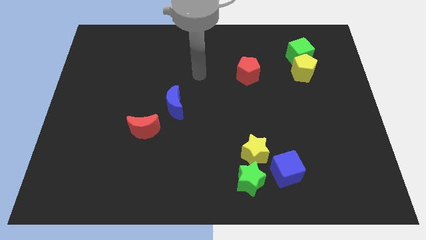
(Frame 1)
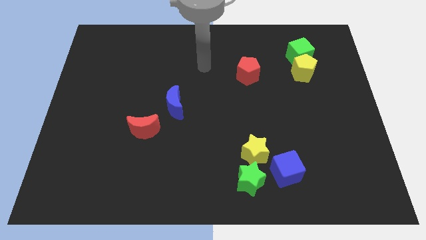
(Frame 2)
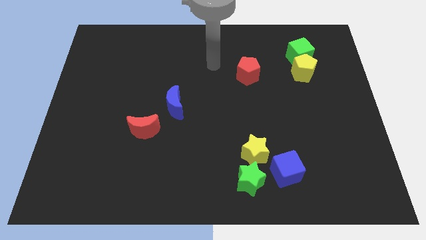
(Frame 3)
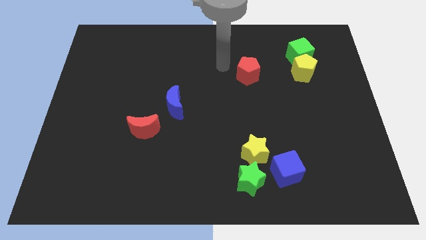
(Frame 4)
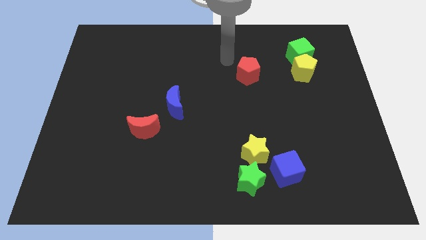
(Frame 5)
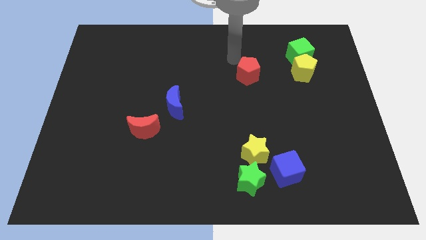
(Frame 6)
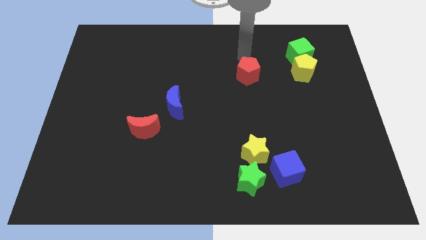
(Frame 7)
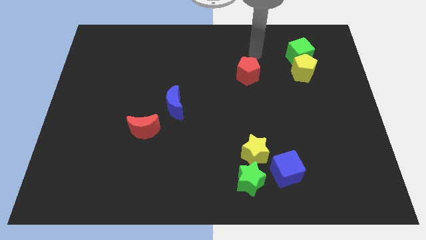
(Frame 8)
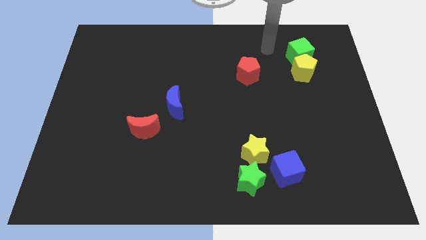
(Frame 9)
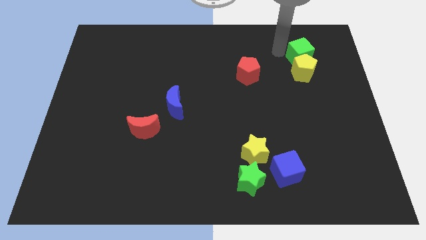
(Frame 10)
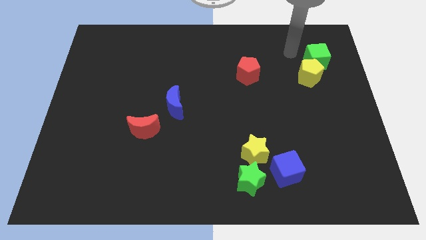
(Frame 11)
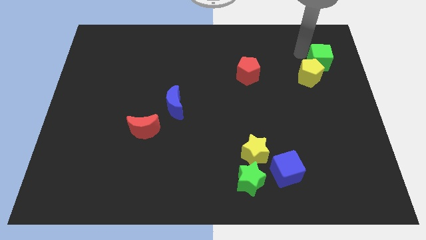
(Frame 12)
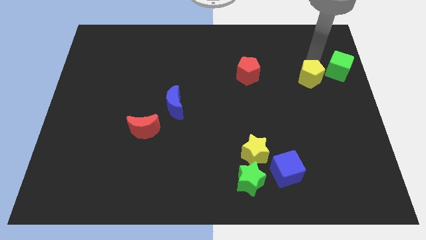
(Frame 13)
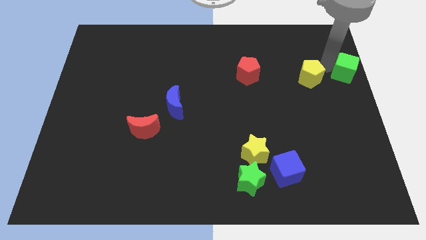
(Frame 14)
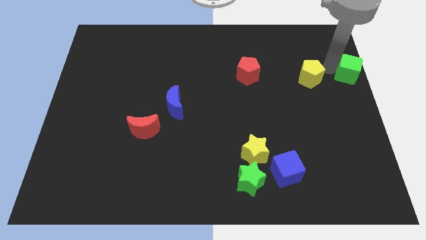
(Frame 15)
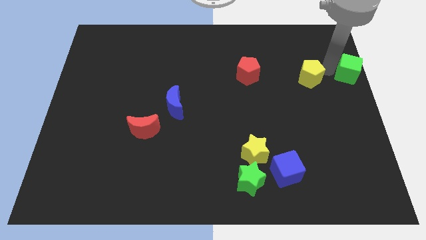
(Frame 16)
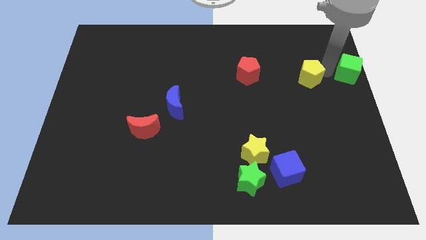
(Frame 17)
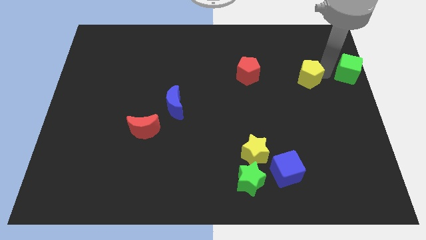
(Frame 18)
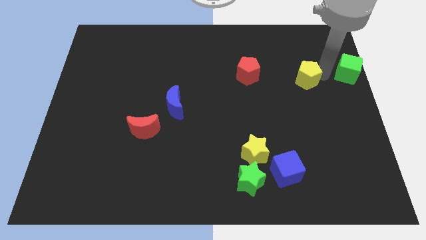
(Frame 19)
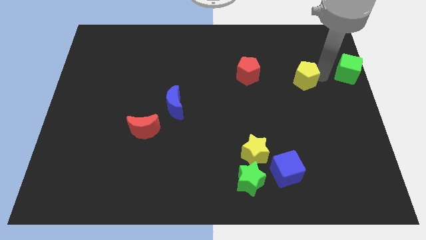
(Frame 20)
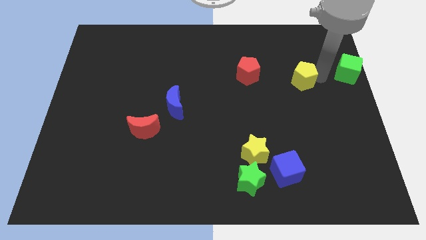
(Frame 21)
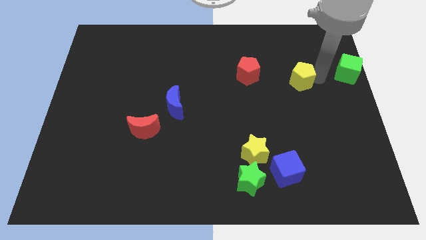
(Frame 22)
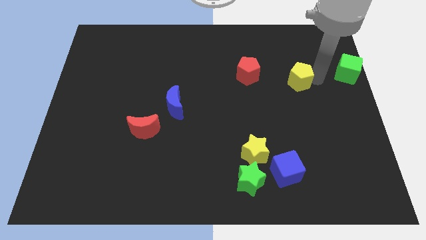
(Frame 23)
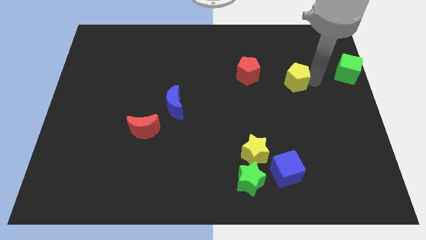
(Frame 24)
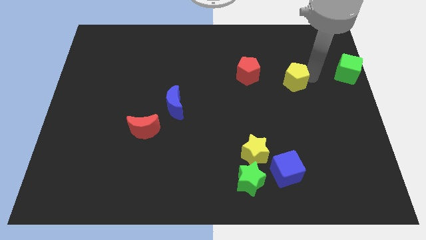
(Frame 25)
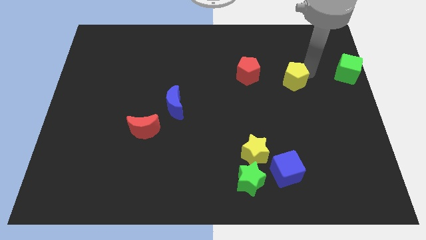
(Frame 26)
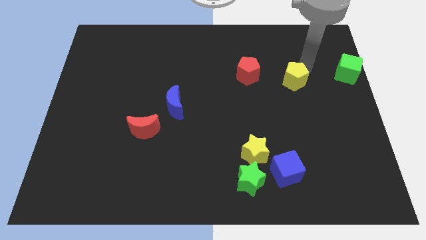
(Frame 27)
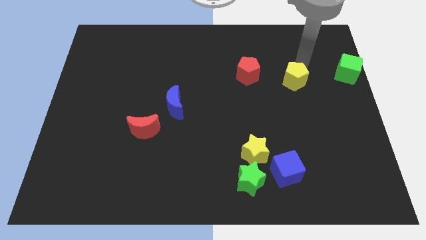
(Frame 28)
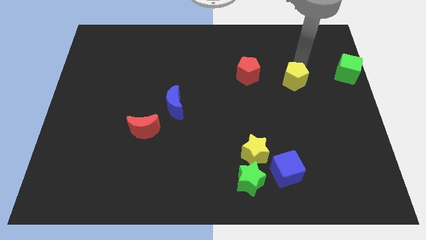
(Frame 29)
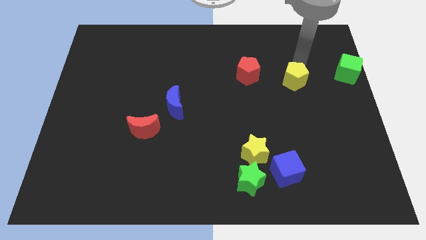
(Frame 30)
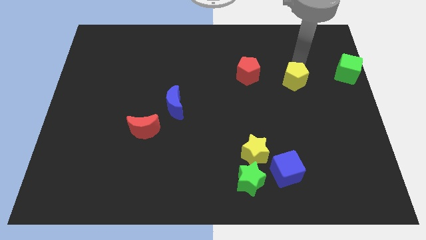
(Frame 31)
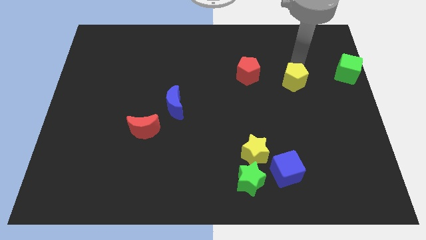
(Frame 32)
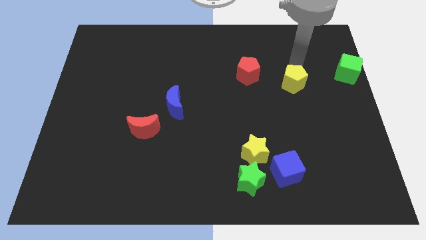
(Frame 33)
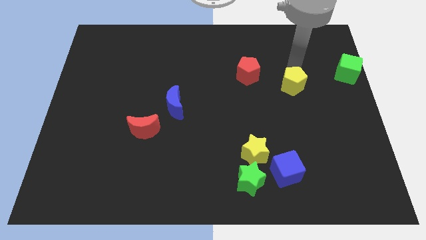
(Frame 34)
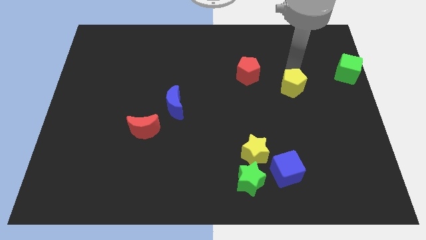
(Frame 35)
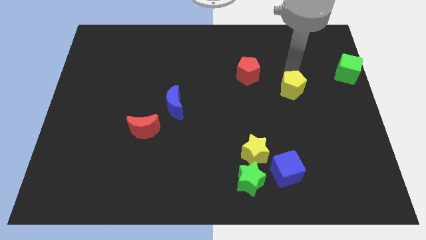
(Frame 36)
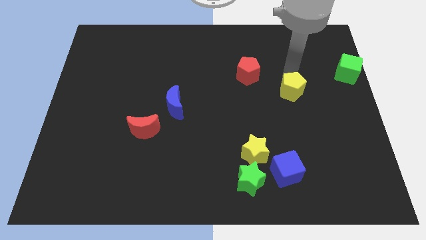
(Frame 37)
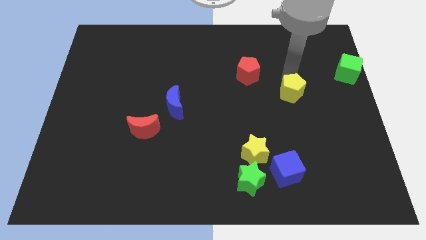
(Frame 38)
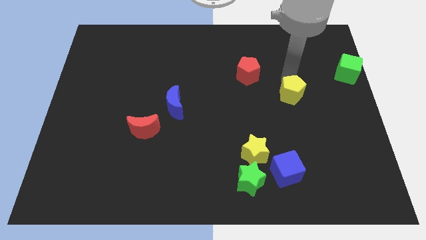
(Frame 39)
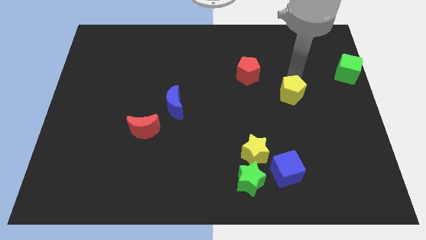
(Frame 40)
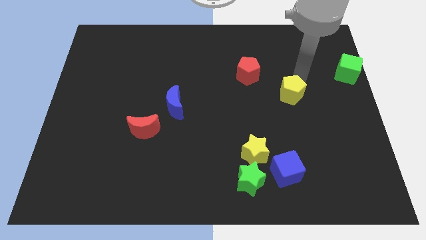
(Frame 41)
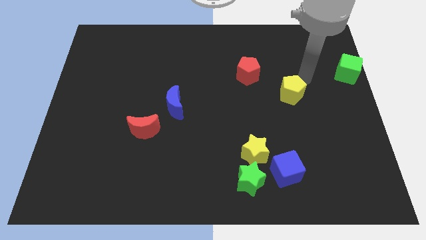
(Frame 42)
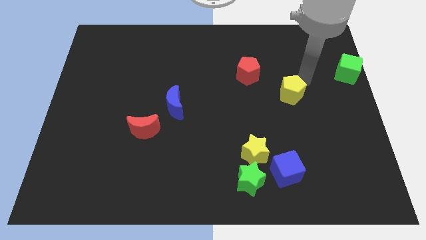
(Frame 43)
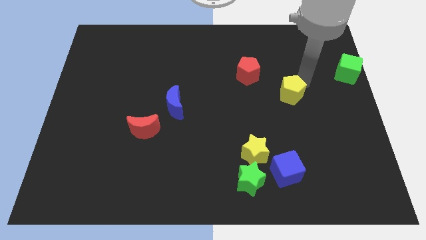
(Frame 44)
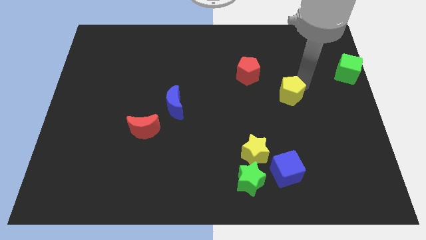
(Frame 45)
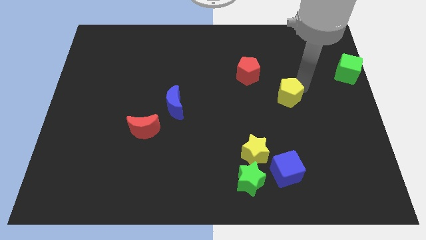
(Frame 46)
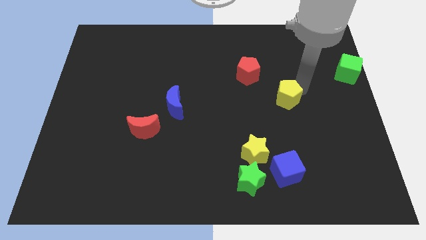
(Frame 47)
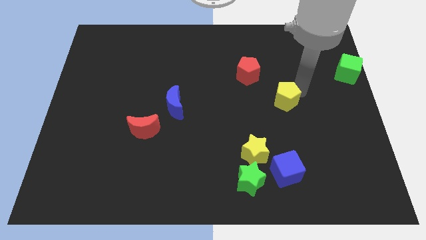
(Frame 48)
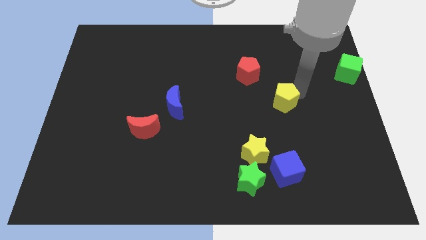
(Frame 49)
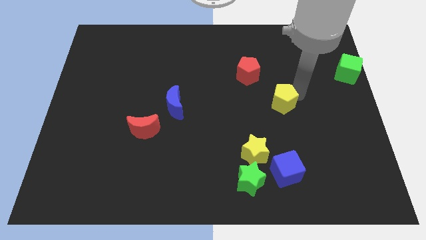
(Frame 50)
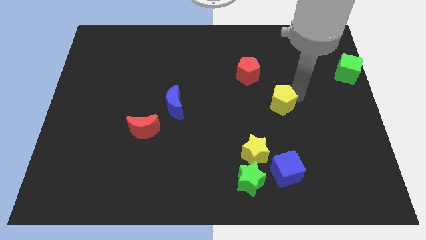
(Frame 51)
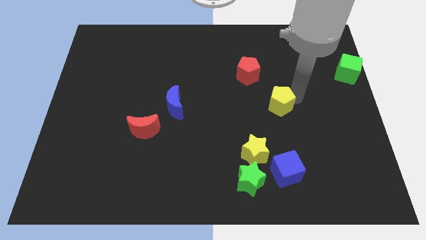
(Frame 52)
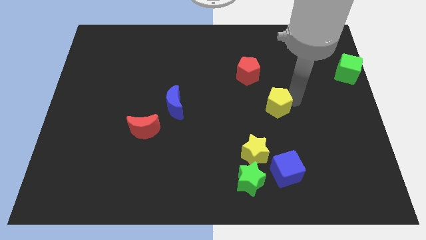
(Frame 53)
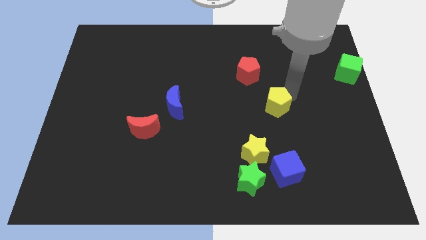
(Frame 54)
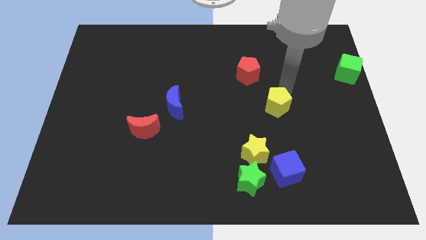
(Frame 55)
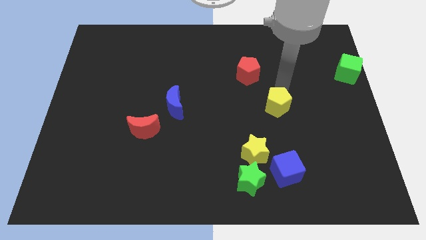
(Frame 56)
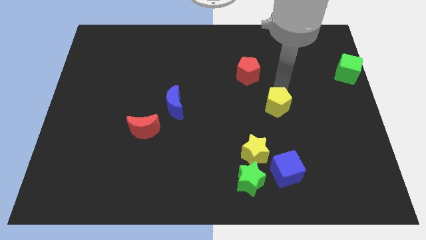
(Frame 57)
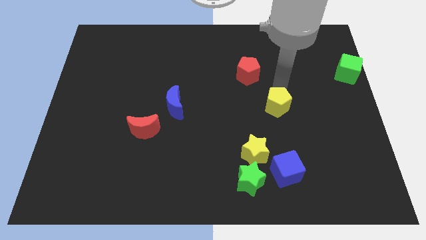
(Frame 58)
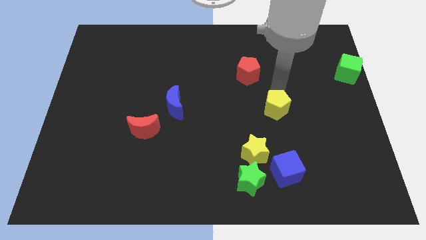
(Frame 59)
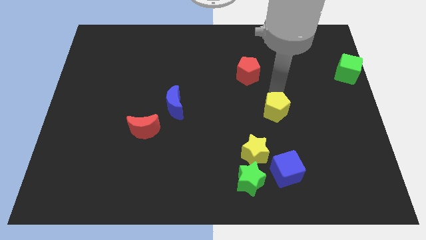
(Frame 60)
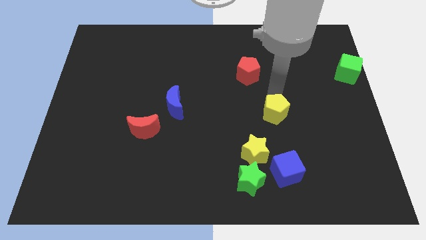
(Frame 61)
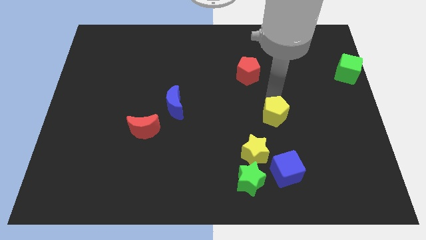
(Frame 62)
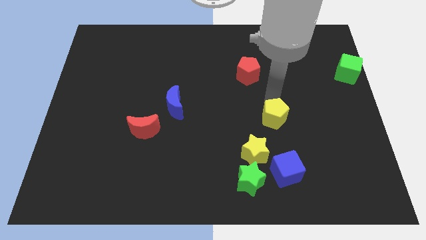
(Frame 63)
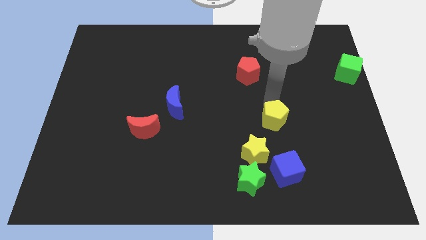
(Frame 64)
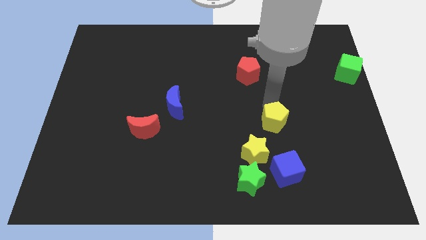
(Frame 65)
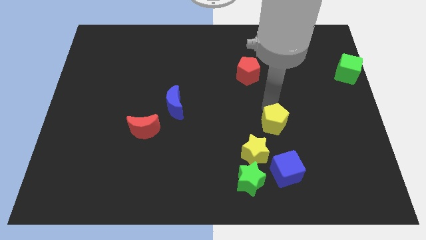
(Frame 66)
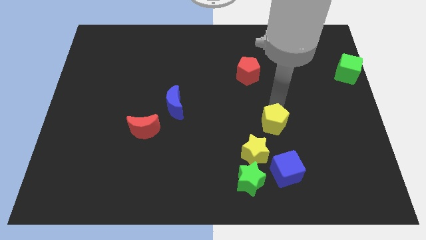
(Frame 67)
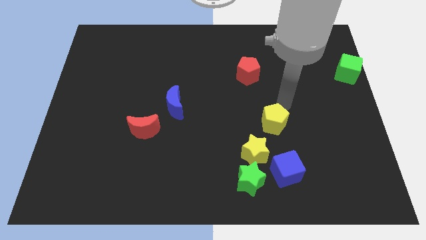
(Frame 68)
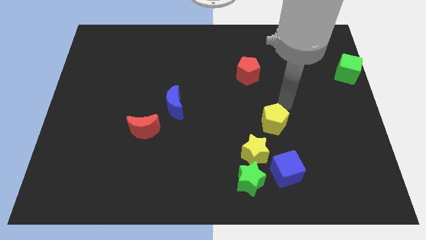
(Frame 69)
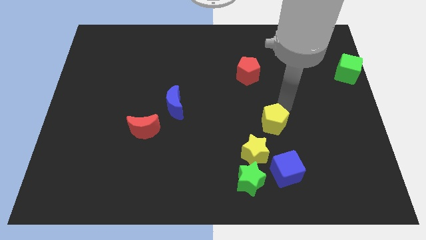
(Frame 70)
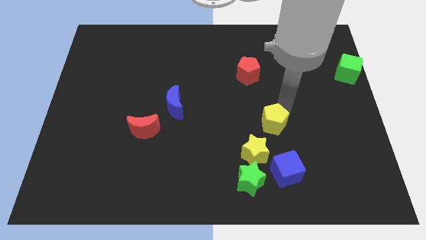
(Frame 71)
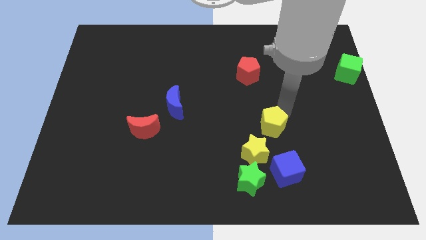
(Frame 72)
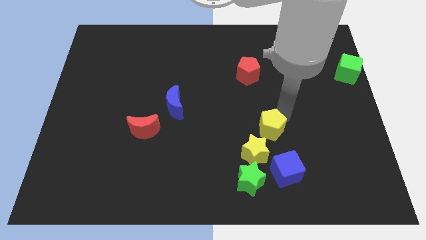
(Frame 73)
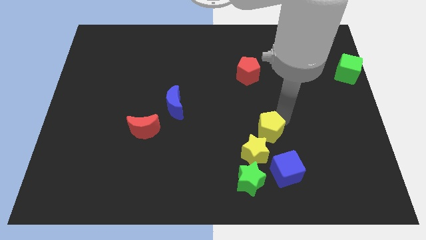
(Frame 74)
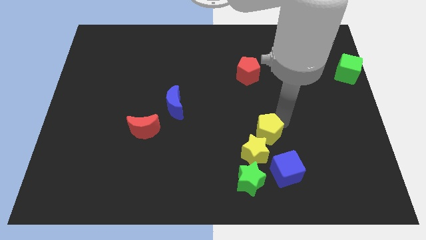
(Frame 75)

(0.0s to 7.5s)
push the yellow pentagon towards the yellow star

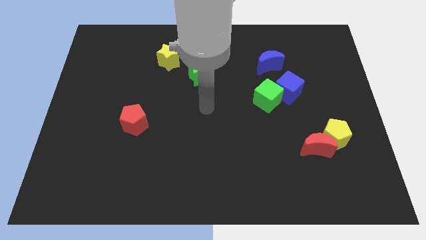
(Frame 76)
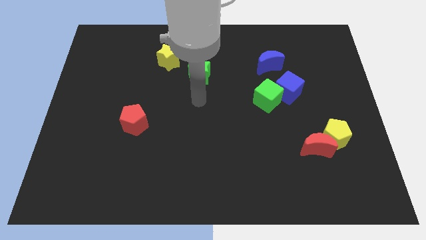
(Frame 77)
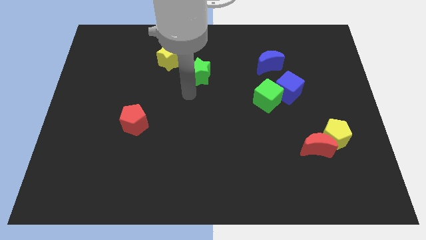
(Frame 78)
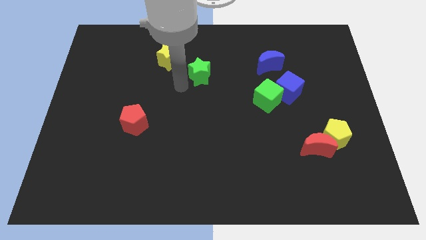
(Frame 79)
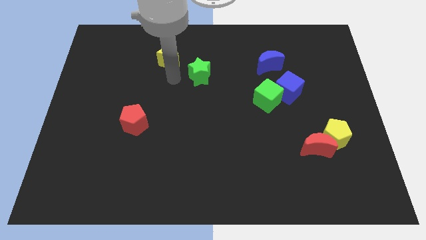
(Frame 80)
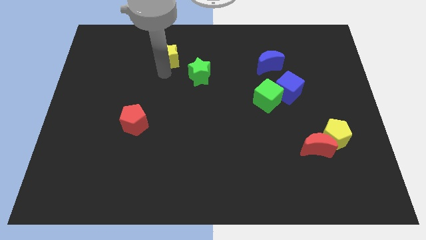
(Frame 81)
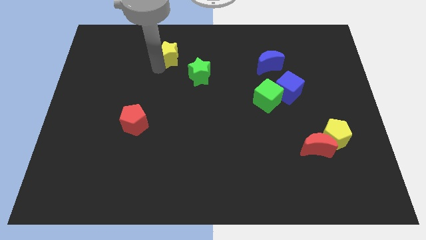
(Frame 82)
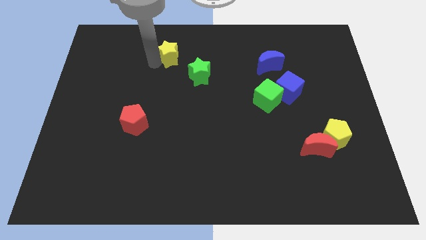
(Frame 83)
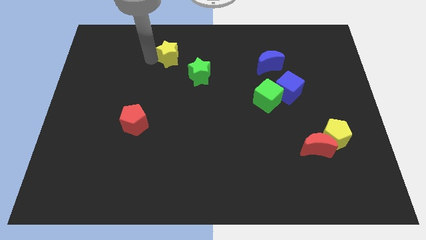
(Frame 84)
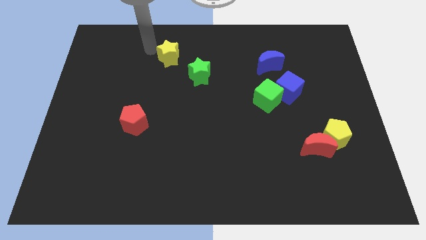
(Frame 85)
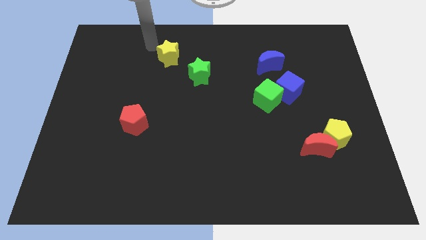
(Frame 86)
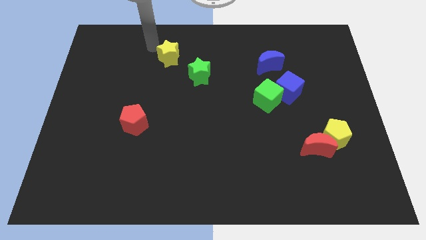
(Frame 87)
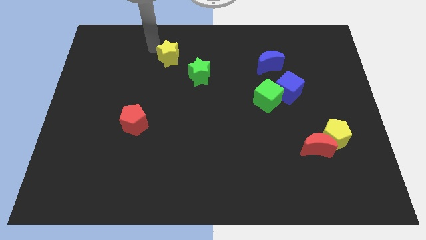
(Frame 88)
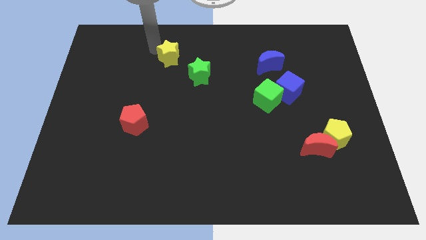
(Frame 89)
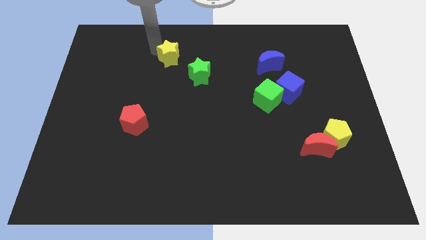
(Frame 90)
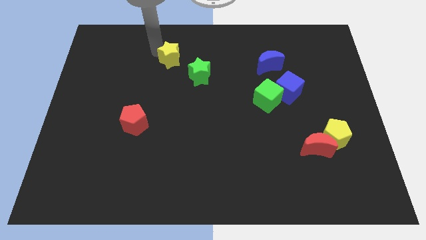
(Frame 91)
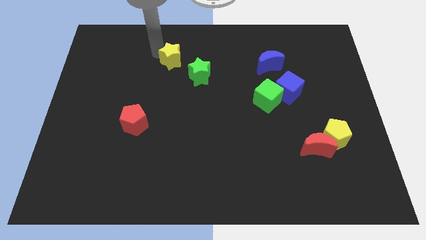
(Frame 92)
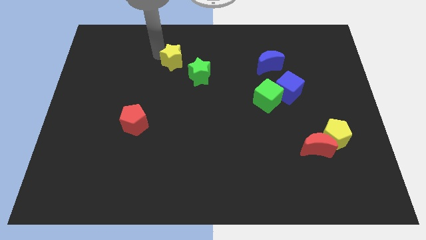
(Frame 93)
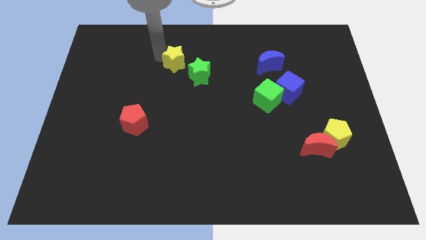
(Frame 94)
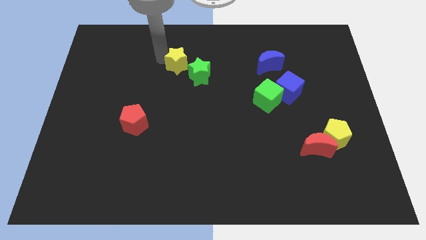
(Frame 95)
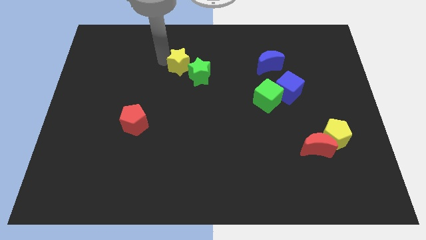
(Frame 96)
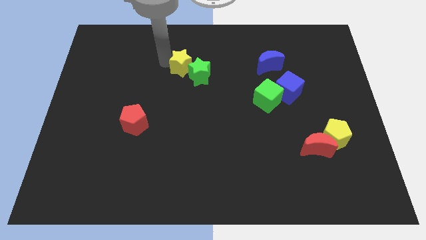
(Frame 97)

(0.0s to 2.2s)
slide the yellow star close to the green star
